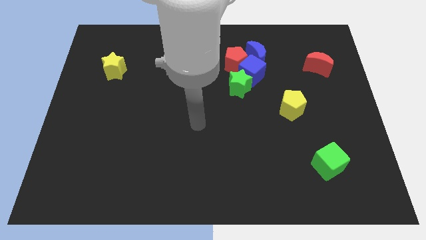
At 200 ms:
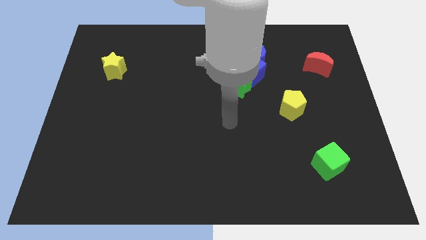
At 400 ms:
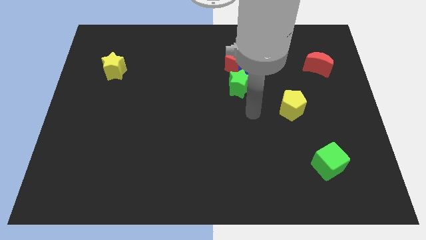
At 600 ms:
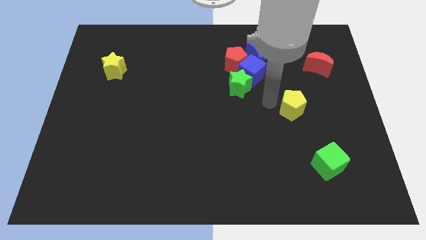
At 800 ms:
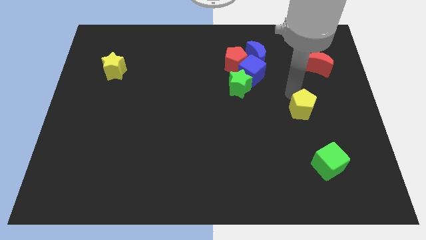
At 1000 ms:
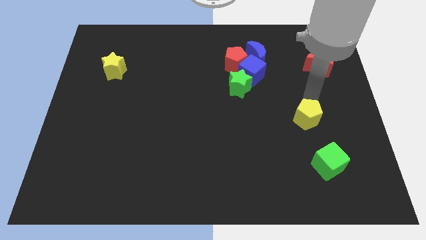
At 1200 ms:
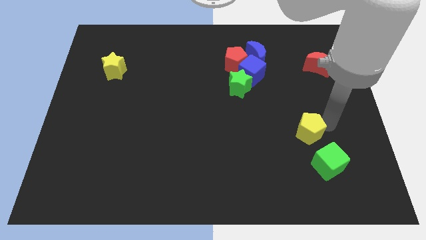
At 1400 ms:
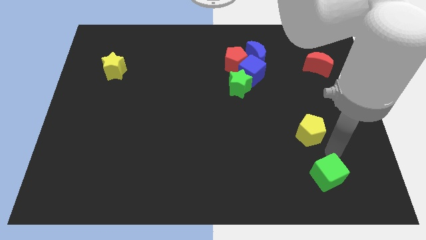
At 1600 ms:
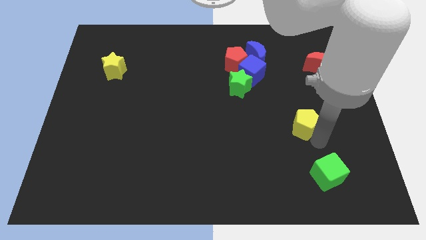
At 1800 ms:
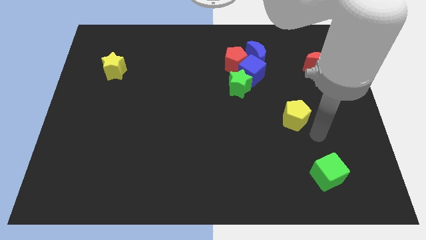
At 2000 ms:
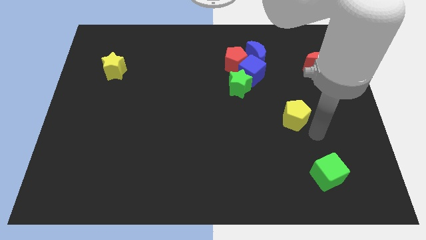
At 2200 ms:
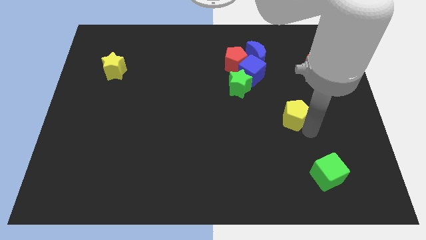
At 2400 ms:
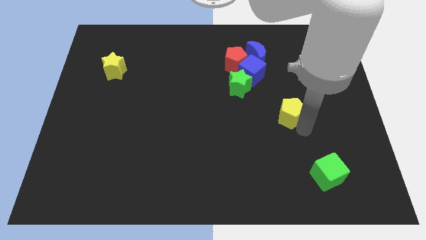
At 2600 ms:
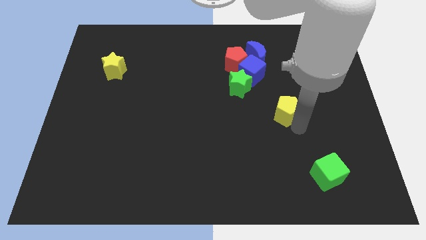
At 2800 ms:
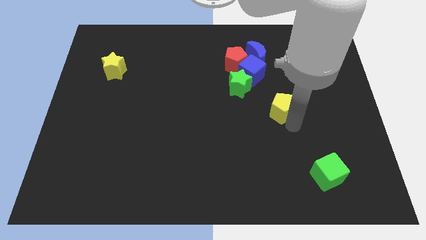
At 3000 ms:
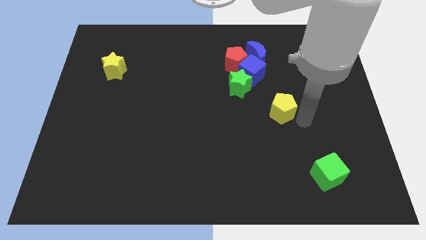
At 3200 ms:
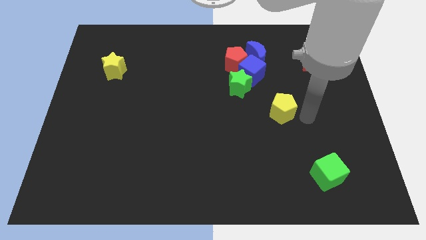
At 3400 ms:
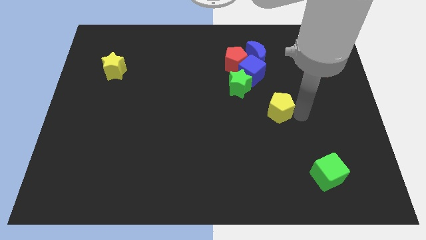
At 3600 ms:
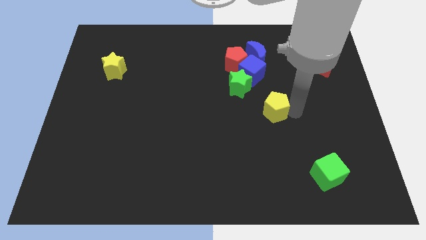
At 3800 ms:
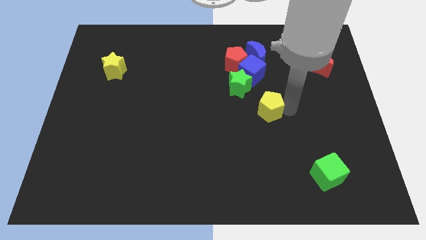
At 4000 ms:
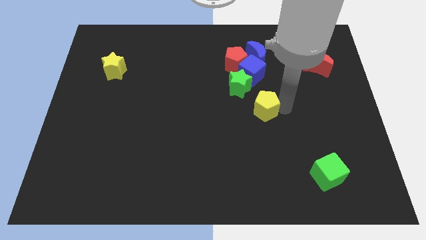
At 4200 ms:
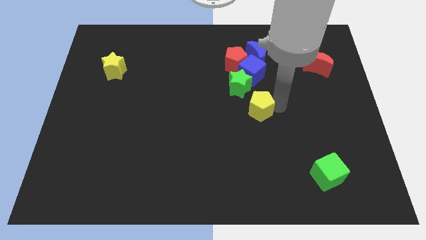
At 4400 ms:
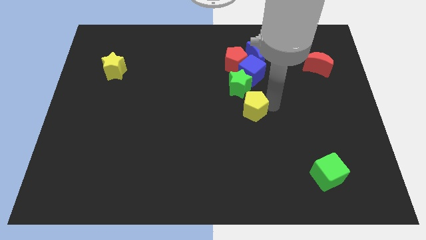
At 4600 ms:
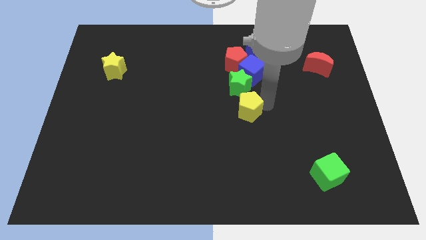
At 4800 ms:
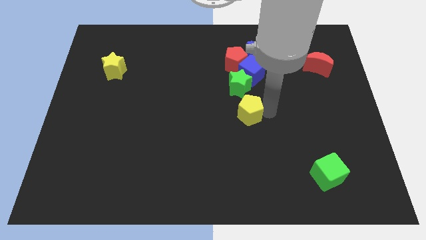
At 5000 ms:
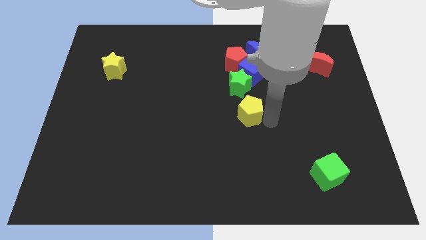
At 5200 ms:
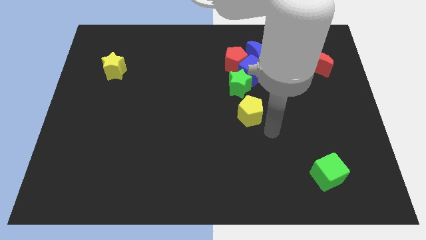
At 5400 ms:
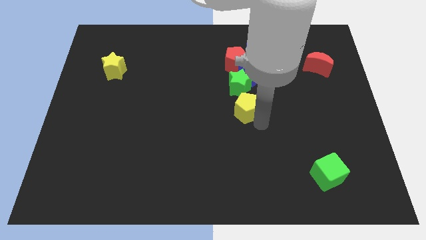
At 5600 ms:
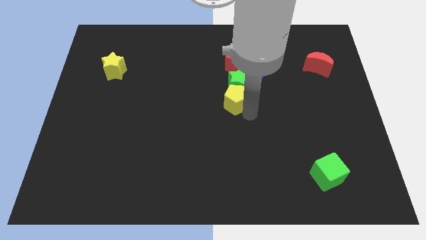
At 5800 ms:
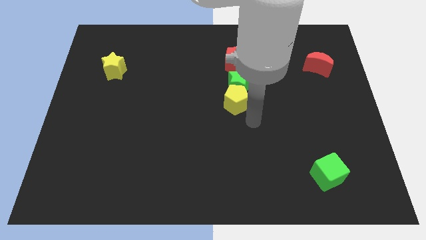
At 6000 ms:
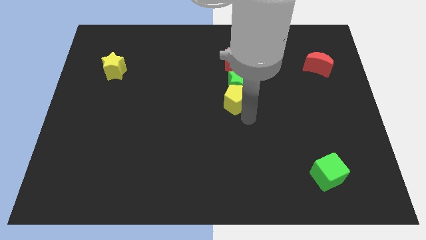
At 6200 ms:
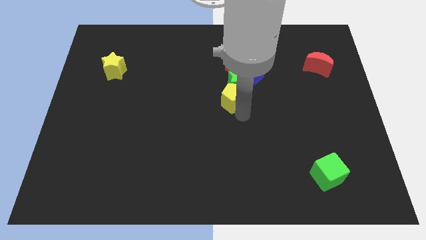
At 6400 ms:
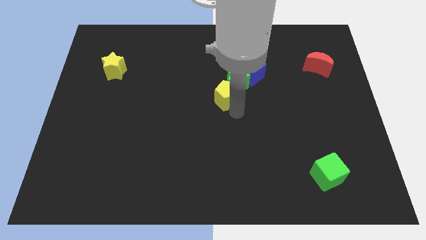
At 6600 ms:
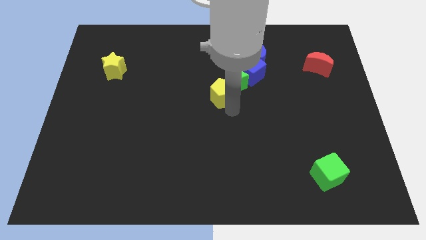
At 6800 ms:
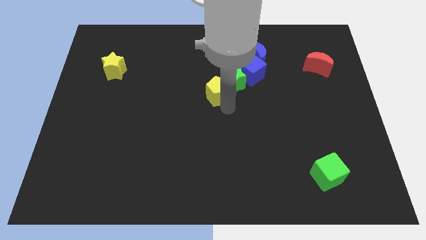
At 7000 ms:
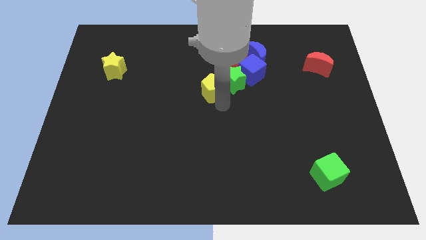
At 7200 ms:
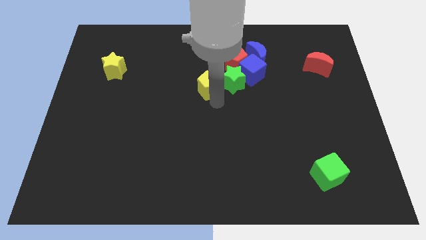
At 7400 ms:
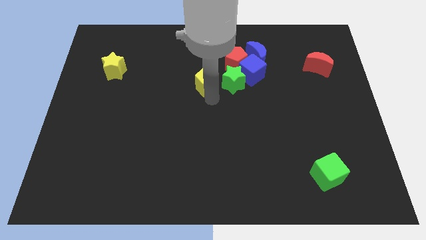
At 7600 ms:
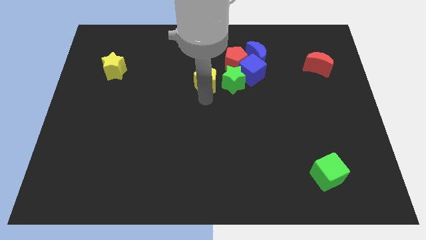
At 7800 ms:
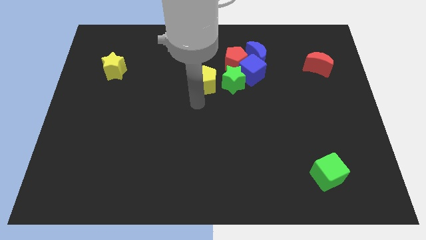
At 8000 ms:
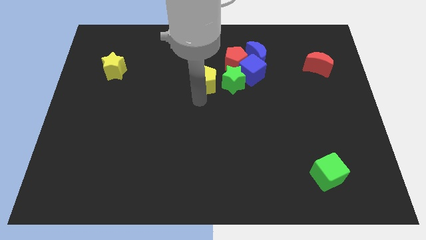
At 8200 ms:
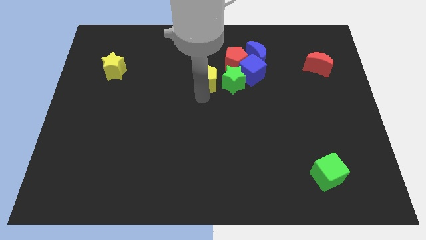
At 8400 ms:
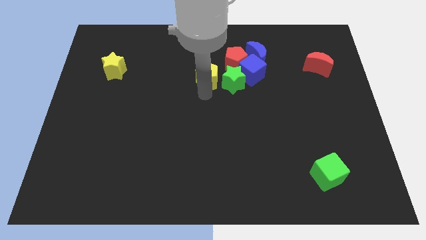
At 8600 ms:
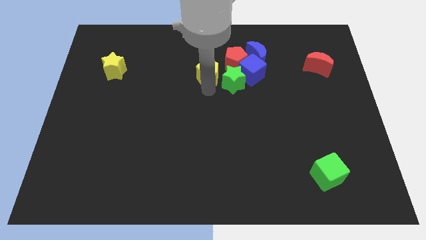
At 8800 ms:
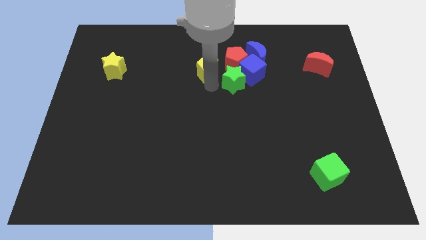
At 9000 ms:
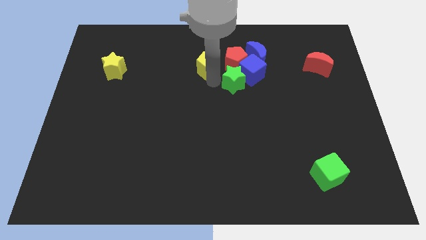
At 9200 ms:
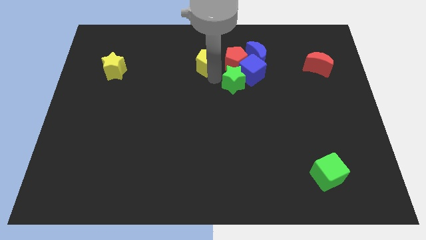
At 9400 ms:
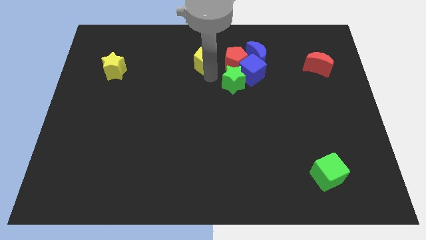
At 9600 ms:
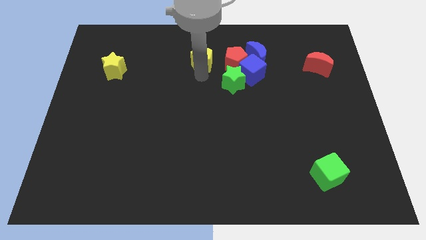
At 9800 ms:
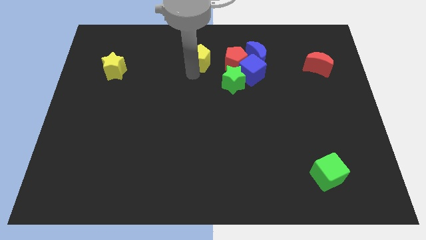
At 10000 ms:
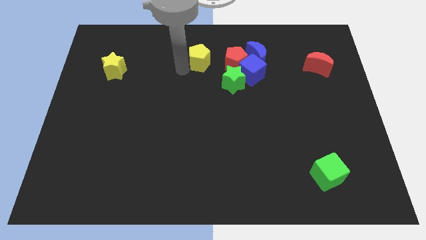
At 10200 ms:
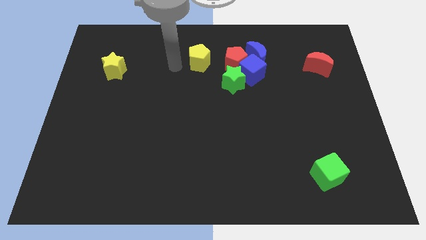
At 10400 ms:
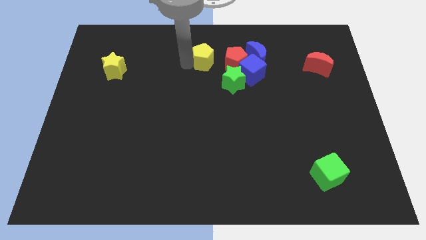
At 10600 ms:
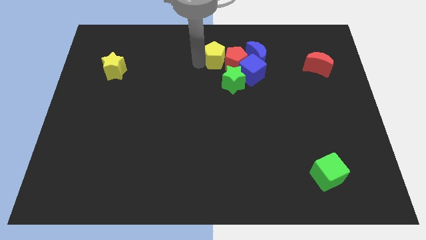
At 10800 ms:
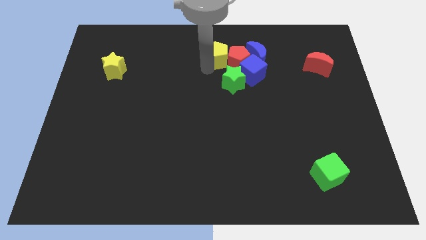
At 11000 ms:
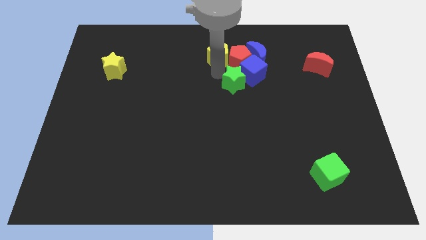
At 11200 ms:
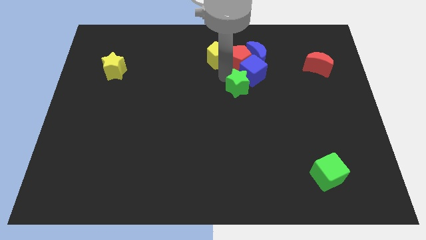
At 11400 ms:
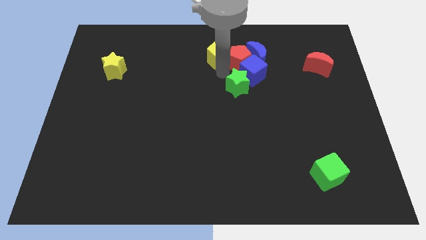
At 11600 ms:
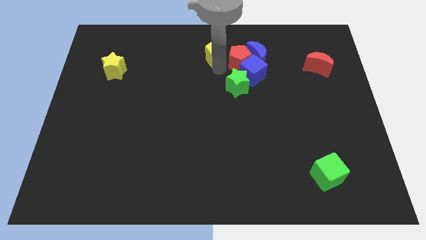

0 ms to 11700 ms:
slide the yellow pentagon to the top

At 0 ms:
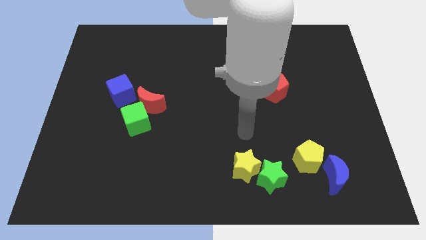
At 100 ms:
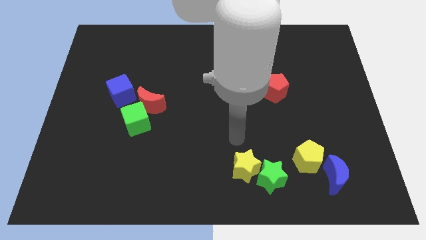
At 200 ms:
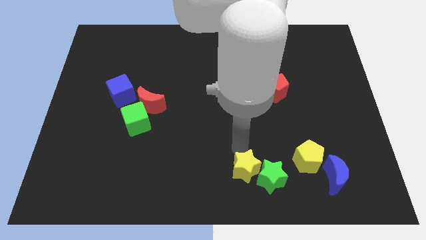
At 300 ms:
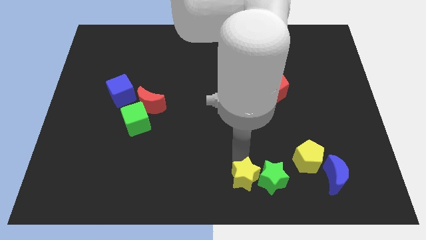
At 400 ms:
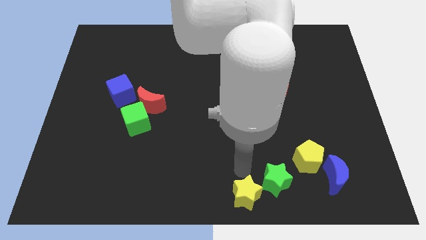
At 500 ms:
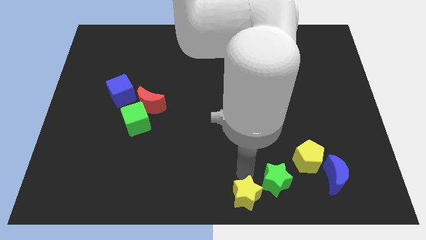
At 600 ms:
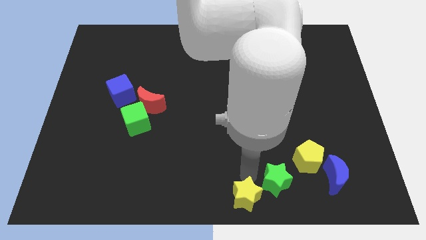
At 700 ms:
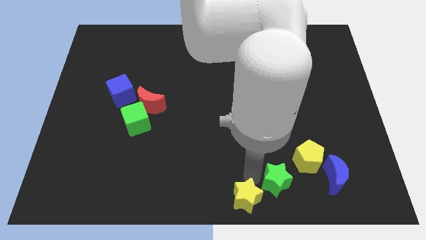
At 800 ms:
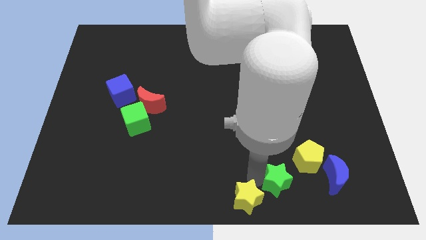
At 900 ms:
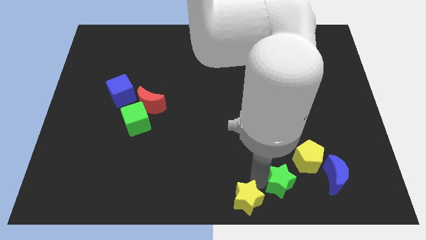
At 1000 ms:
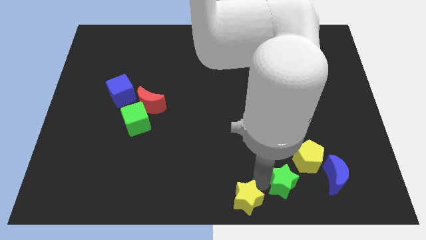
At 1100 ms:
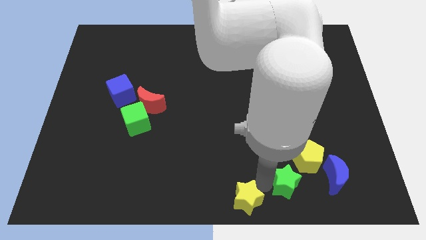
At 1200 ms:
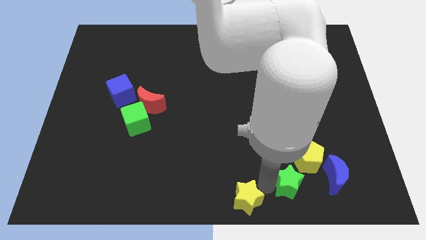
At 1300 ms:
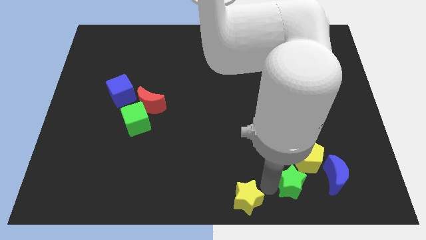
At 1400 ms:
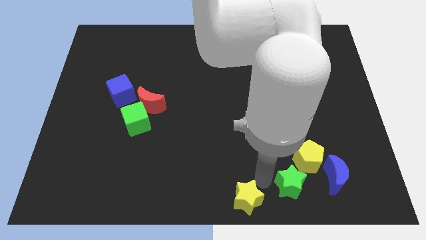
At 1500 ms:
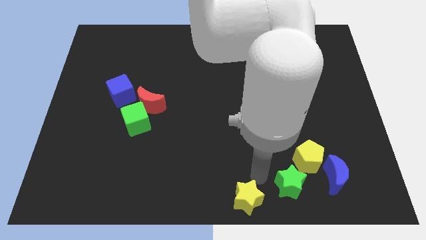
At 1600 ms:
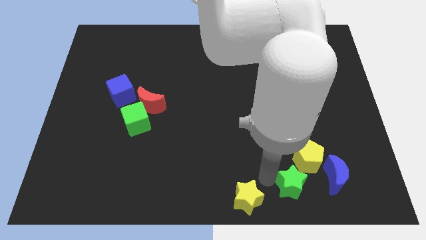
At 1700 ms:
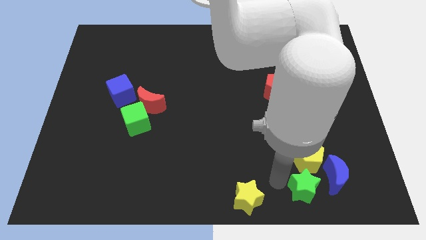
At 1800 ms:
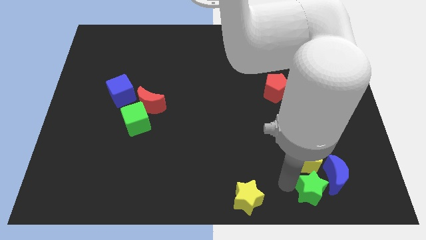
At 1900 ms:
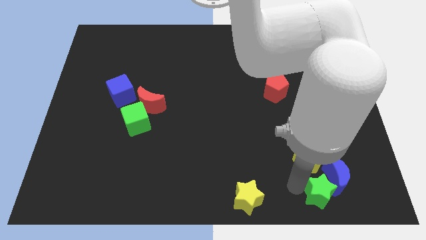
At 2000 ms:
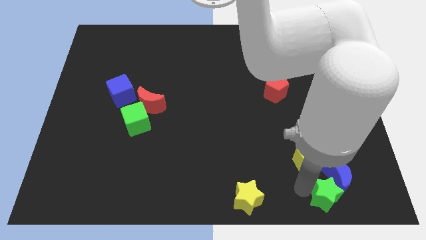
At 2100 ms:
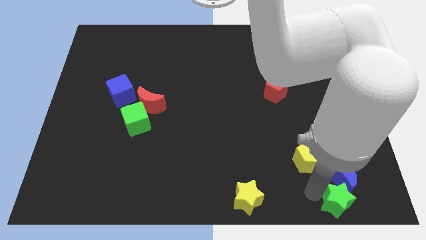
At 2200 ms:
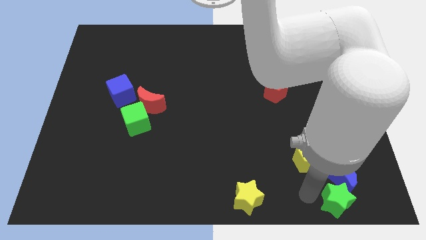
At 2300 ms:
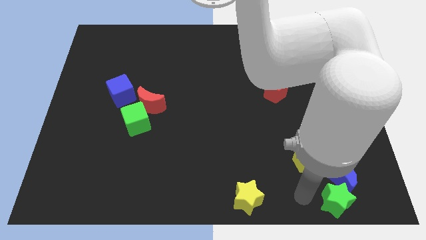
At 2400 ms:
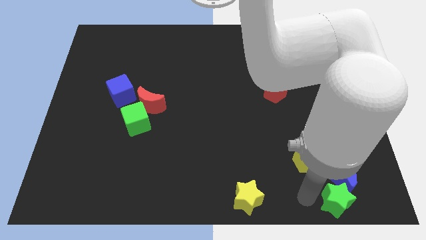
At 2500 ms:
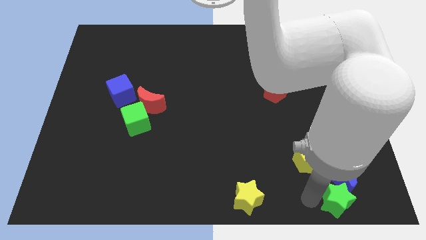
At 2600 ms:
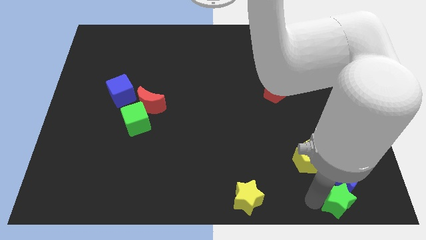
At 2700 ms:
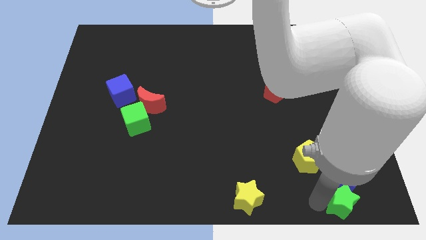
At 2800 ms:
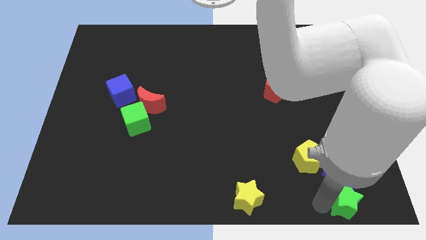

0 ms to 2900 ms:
push the green star to the bottom right
